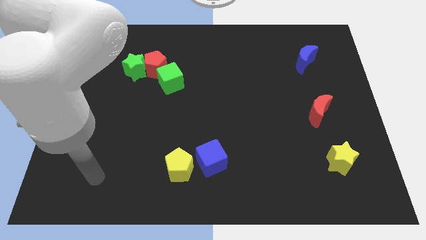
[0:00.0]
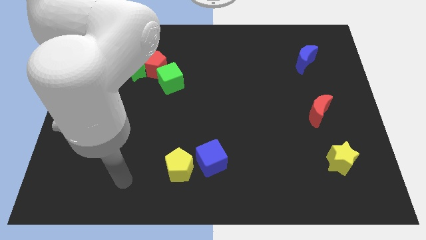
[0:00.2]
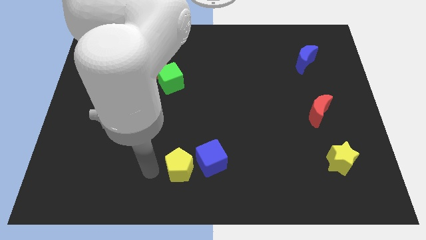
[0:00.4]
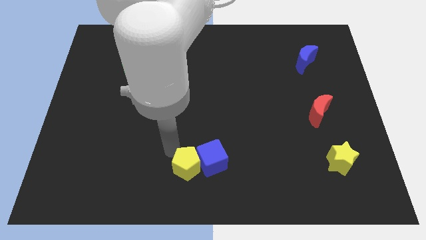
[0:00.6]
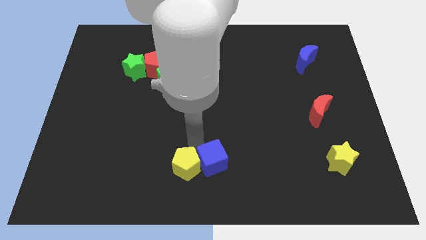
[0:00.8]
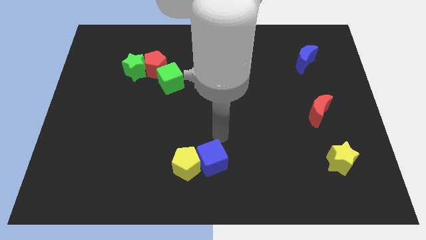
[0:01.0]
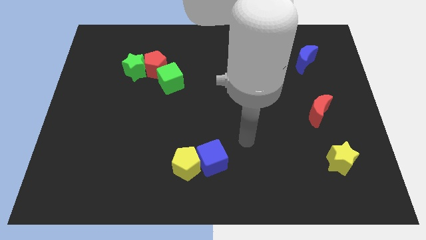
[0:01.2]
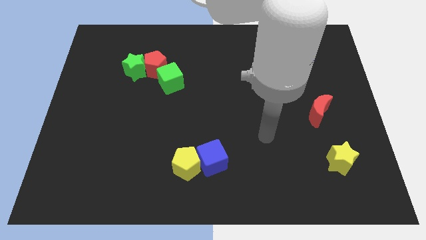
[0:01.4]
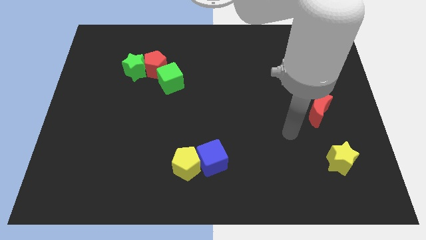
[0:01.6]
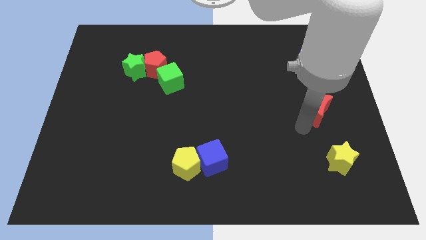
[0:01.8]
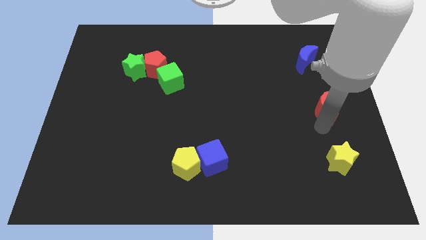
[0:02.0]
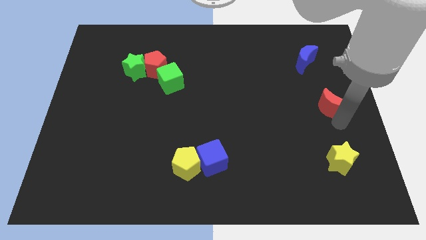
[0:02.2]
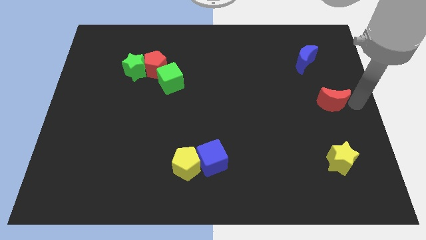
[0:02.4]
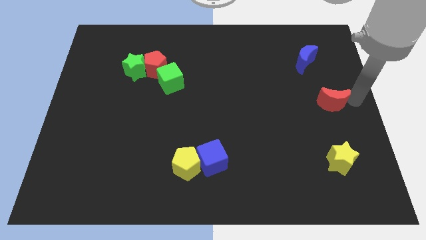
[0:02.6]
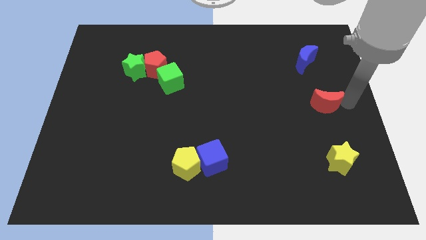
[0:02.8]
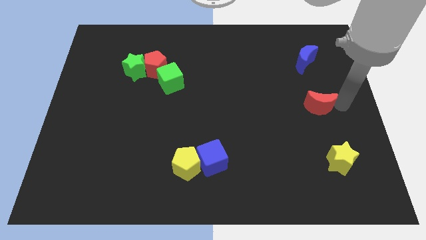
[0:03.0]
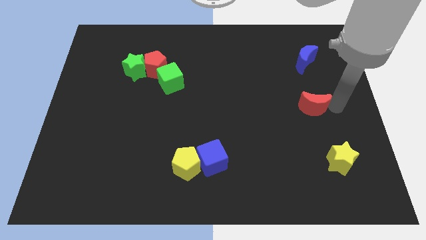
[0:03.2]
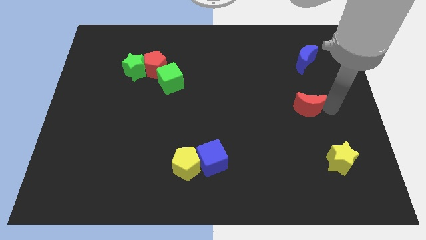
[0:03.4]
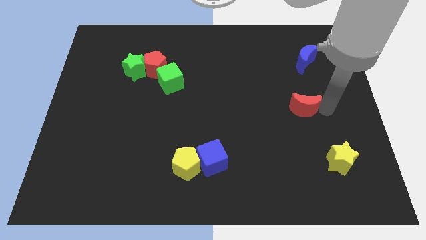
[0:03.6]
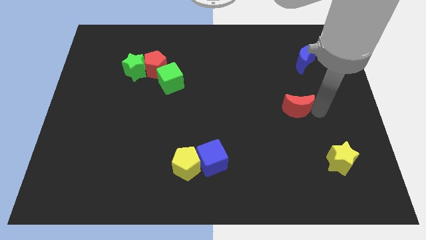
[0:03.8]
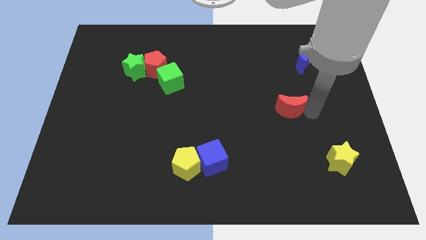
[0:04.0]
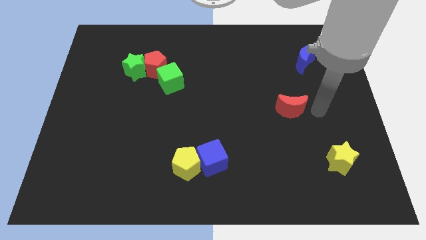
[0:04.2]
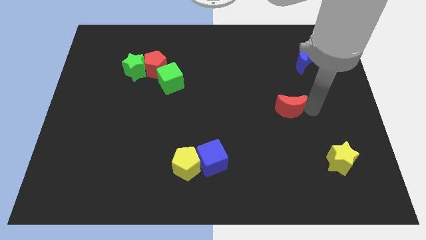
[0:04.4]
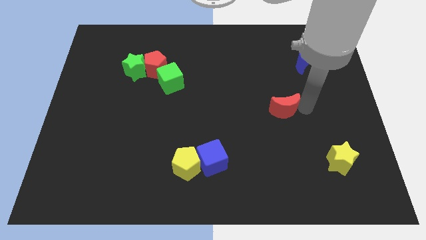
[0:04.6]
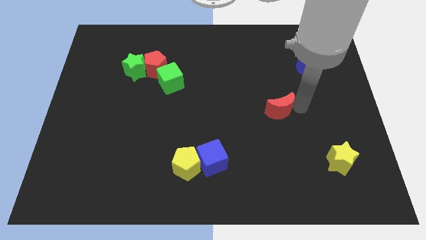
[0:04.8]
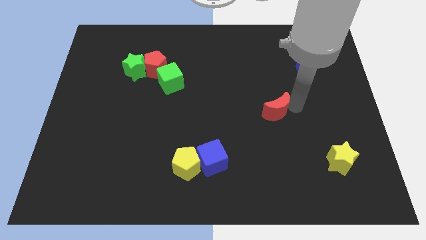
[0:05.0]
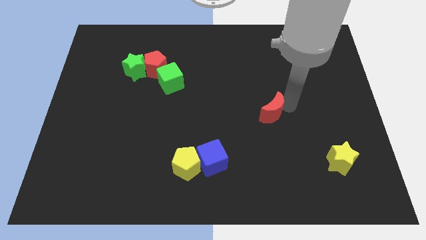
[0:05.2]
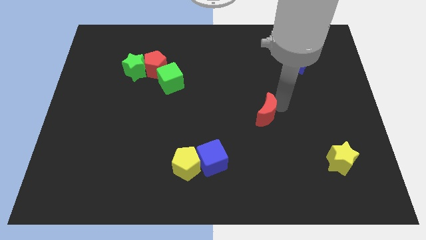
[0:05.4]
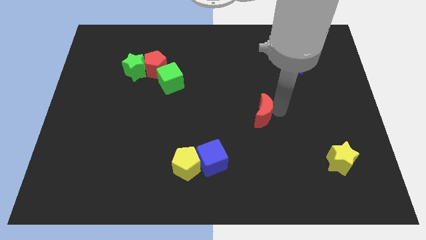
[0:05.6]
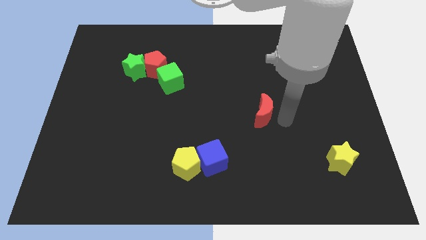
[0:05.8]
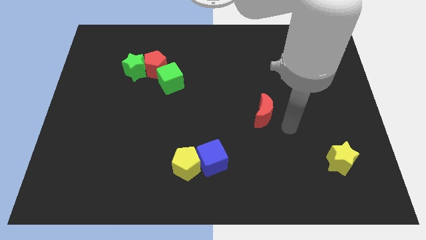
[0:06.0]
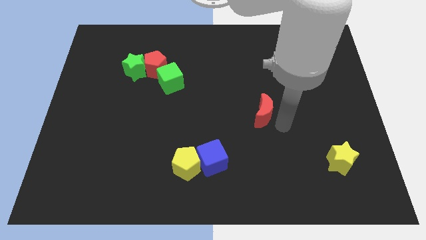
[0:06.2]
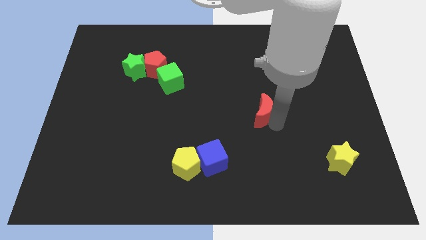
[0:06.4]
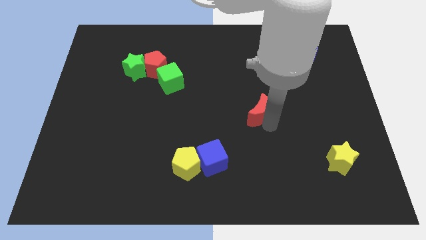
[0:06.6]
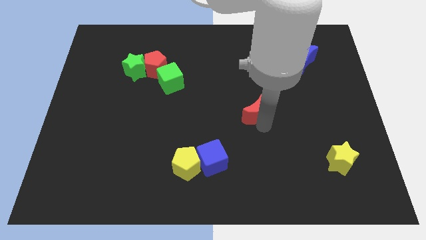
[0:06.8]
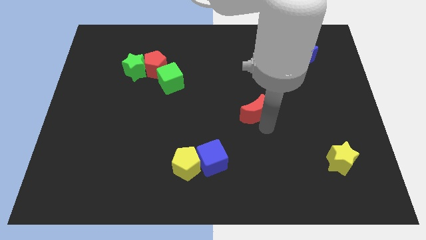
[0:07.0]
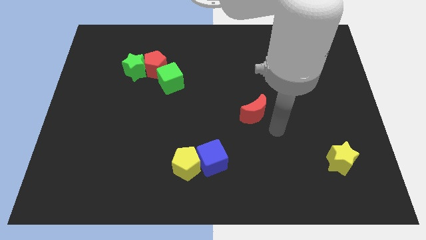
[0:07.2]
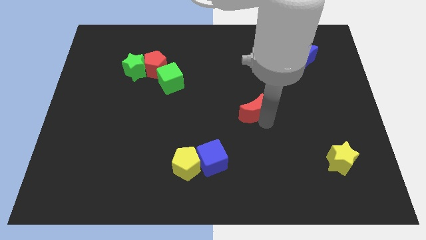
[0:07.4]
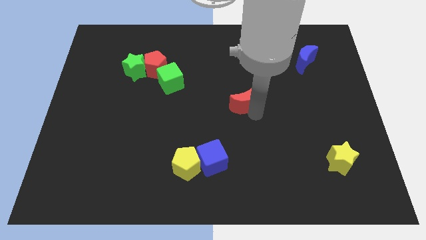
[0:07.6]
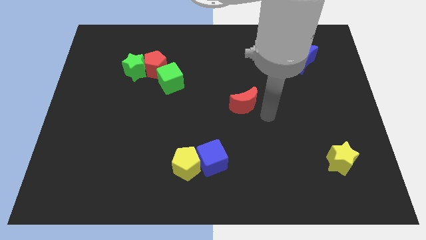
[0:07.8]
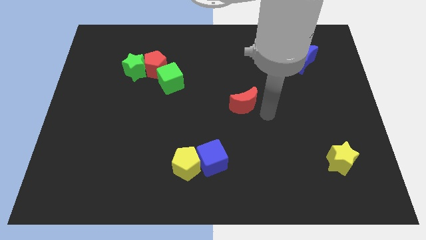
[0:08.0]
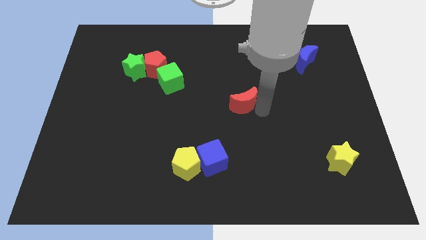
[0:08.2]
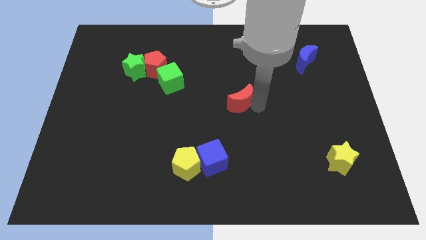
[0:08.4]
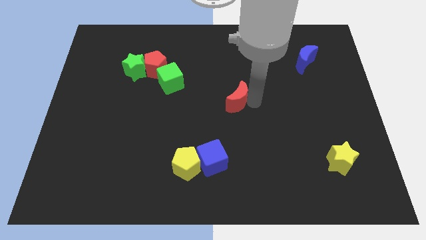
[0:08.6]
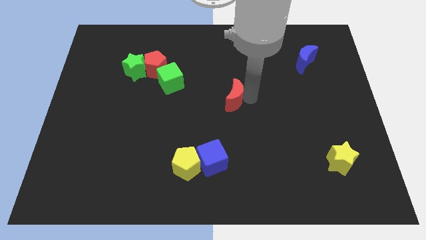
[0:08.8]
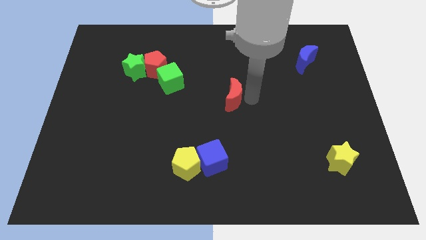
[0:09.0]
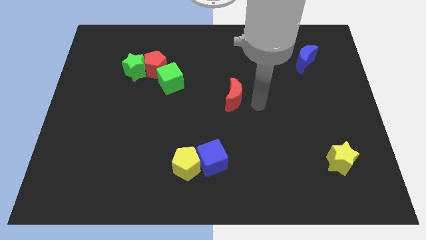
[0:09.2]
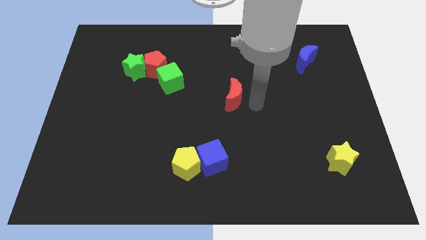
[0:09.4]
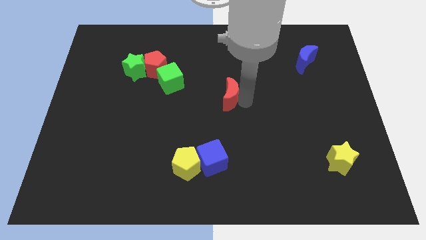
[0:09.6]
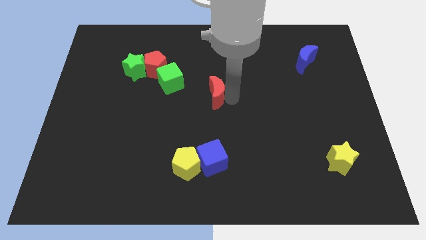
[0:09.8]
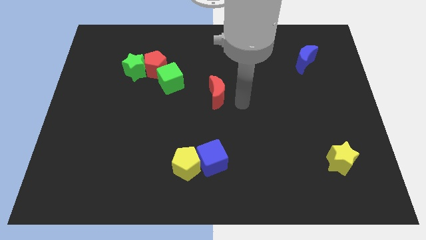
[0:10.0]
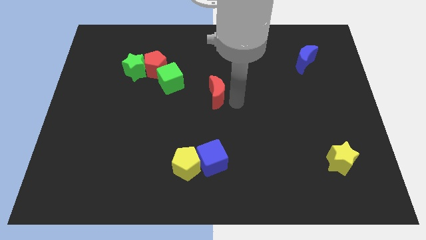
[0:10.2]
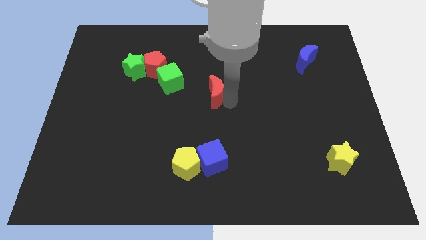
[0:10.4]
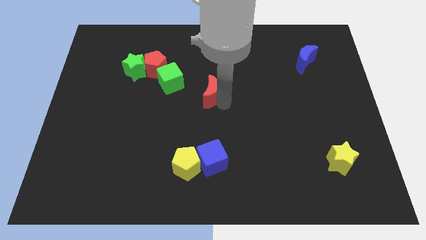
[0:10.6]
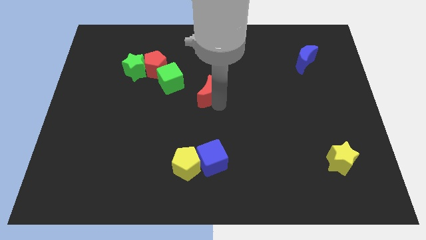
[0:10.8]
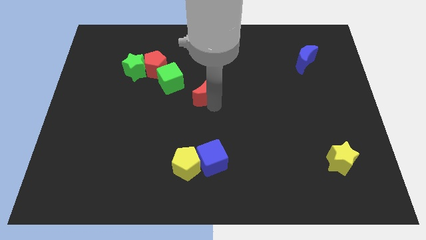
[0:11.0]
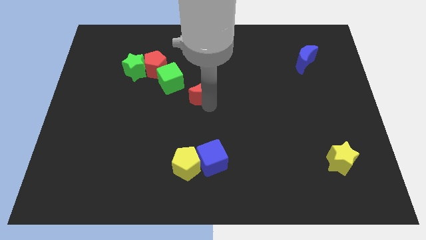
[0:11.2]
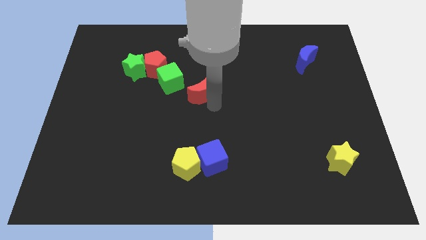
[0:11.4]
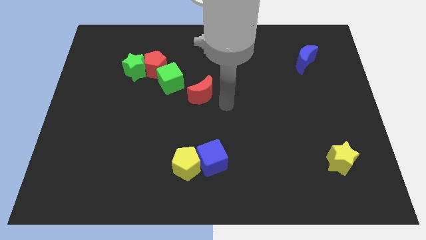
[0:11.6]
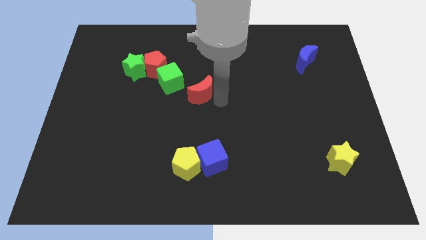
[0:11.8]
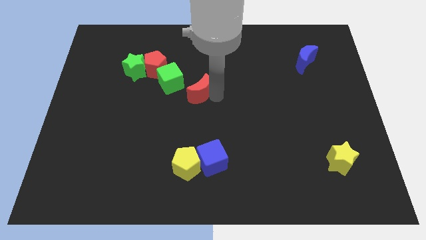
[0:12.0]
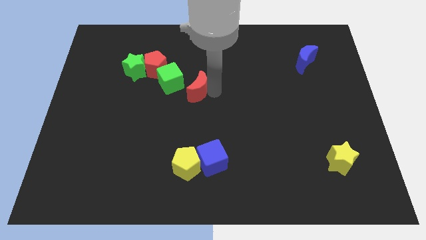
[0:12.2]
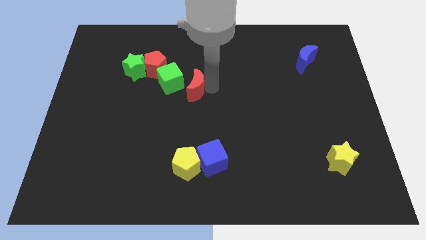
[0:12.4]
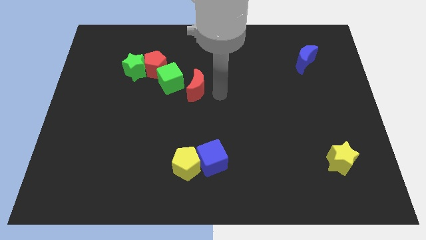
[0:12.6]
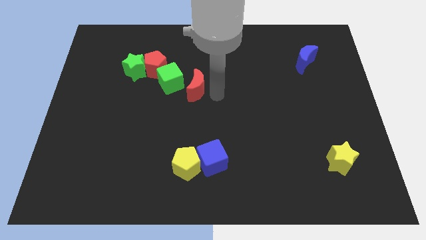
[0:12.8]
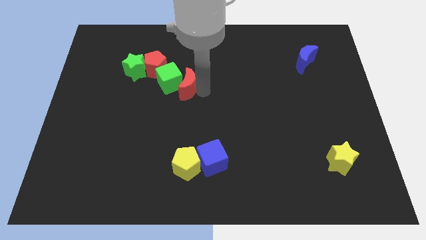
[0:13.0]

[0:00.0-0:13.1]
push the red moon next to the green cube

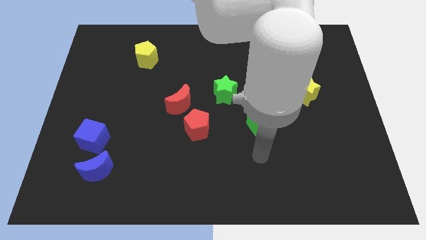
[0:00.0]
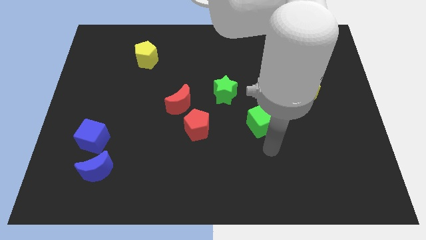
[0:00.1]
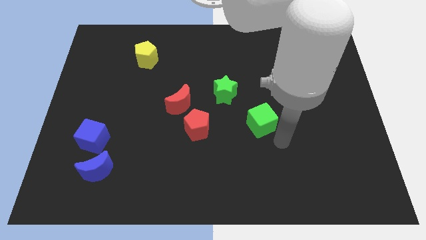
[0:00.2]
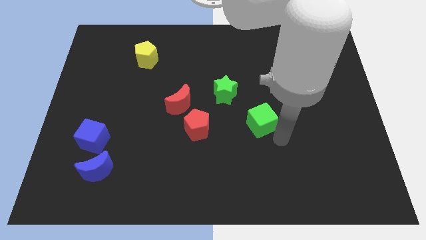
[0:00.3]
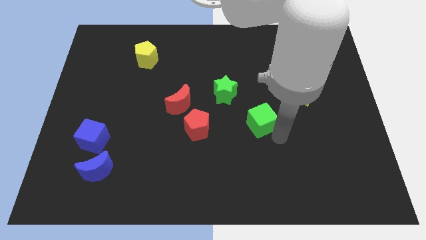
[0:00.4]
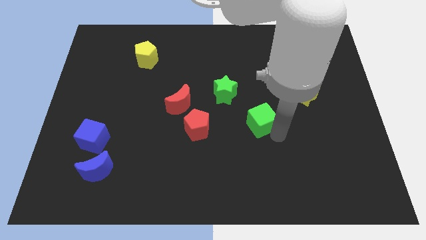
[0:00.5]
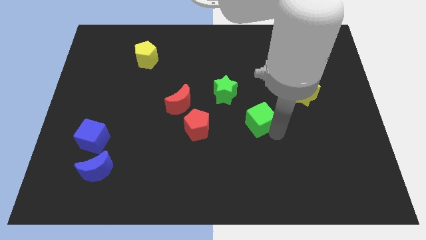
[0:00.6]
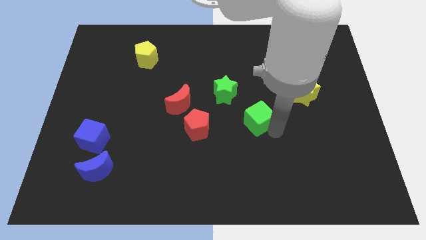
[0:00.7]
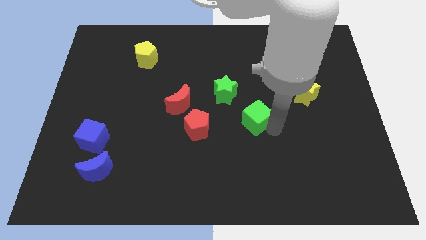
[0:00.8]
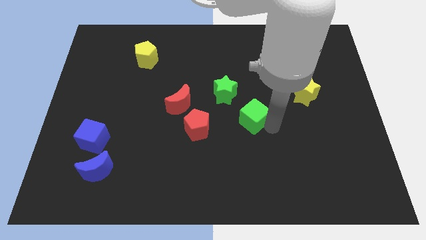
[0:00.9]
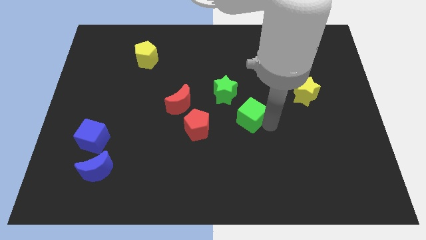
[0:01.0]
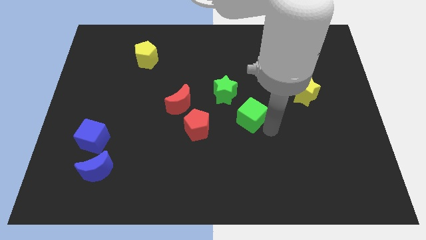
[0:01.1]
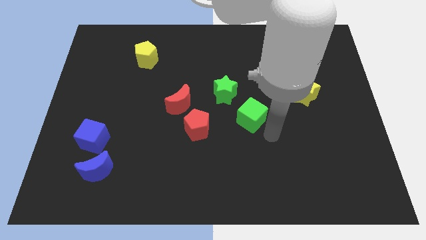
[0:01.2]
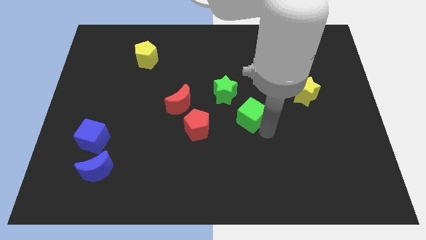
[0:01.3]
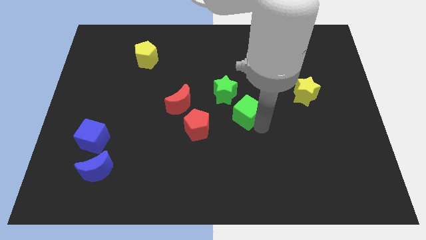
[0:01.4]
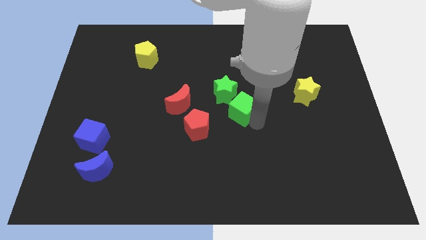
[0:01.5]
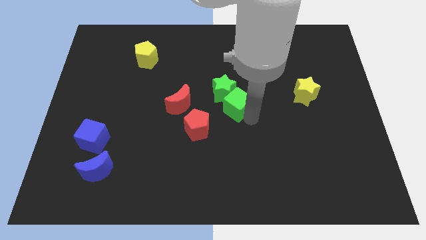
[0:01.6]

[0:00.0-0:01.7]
slide the green cube to the green star
